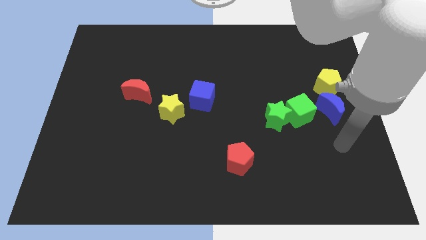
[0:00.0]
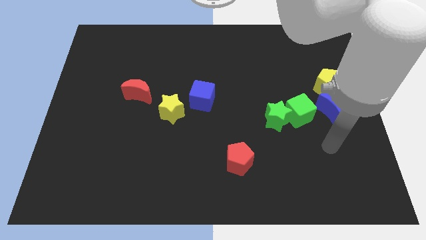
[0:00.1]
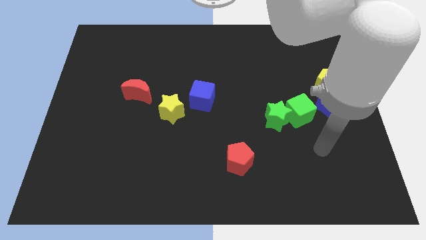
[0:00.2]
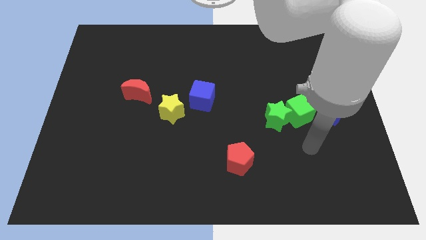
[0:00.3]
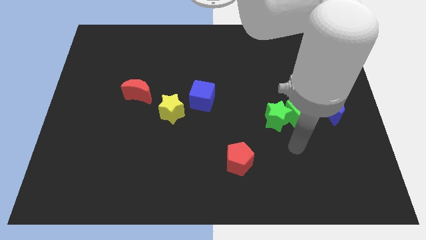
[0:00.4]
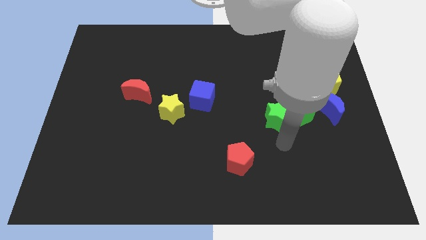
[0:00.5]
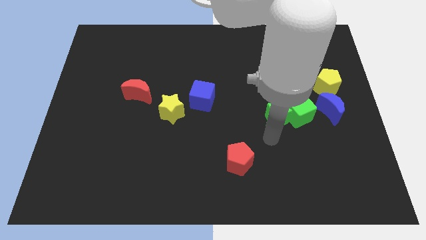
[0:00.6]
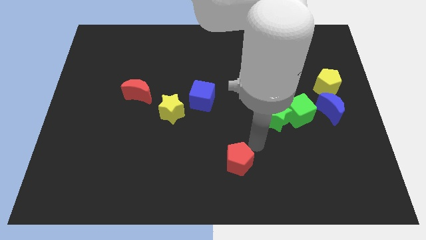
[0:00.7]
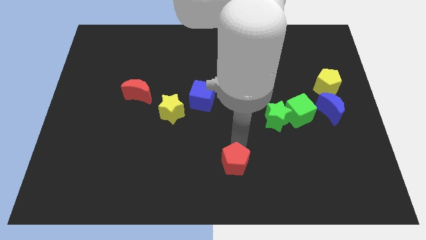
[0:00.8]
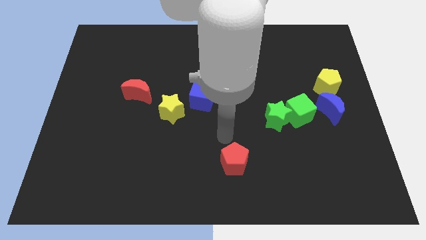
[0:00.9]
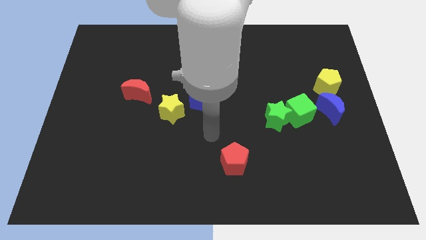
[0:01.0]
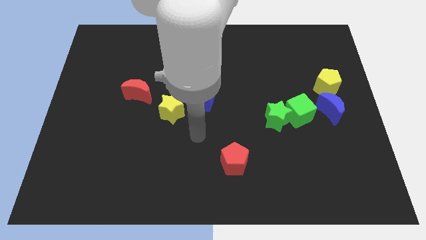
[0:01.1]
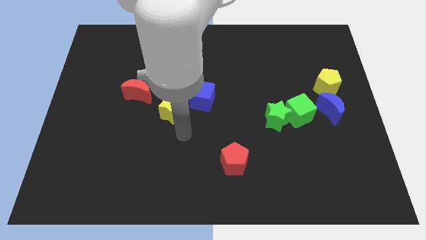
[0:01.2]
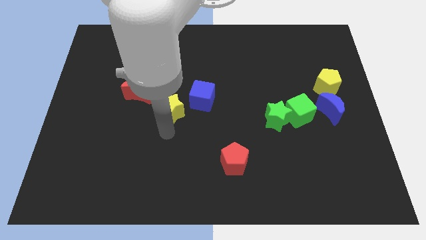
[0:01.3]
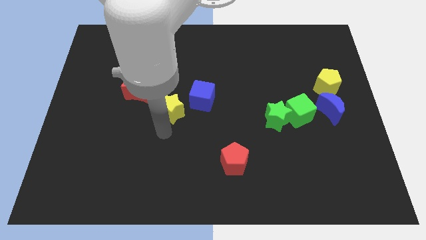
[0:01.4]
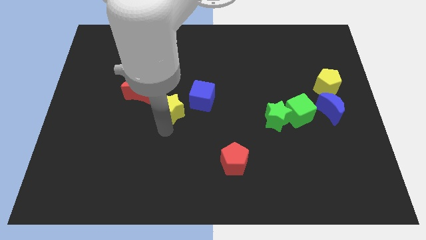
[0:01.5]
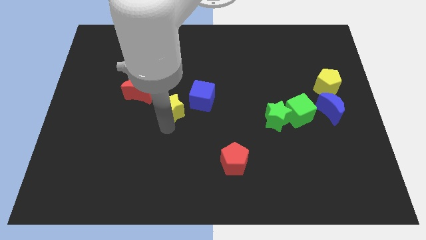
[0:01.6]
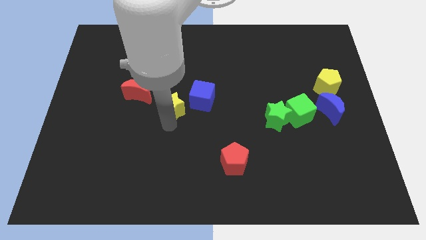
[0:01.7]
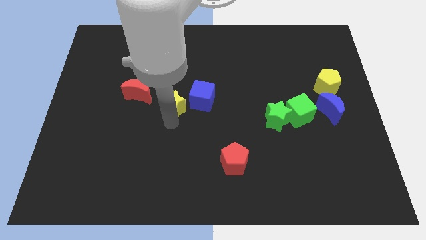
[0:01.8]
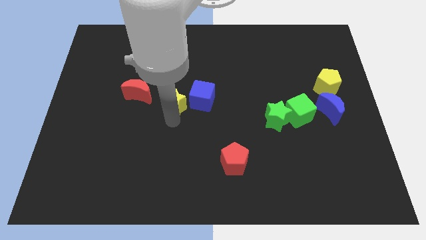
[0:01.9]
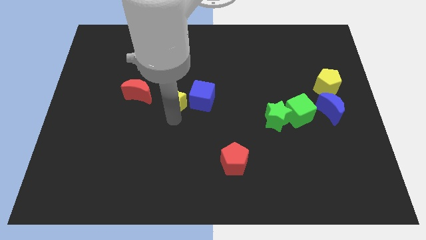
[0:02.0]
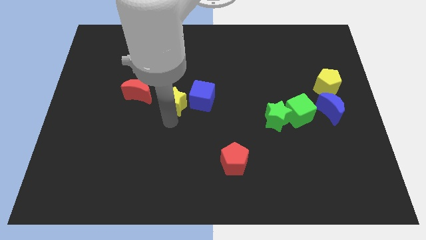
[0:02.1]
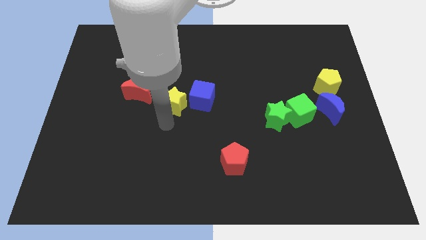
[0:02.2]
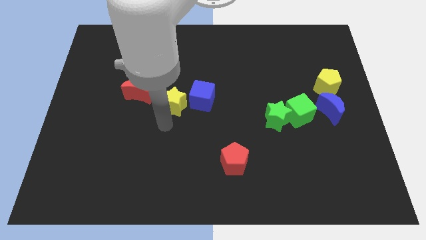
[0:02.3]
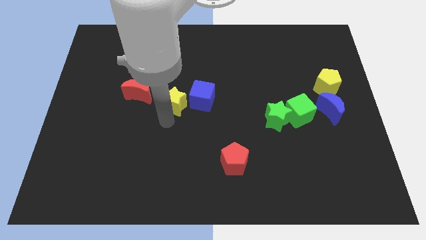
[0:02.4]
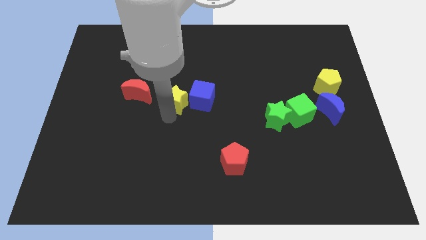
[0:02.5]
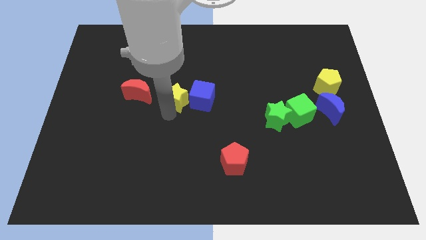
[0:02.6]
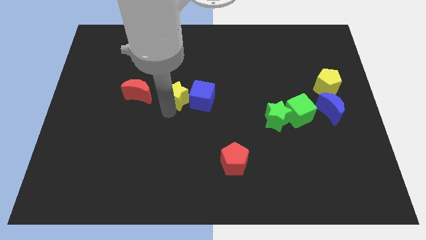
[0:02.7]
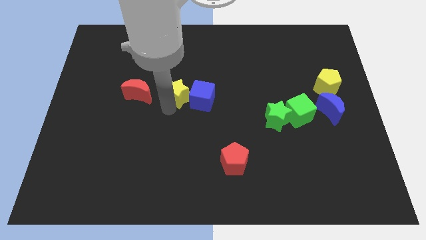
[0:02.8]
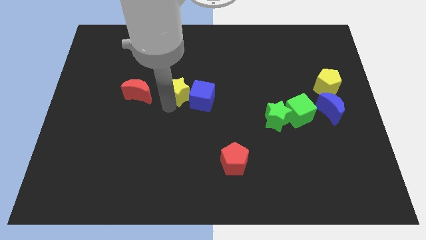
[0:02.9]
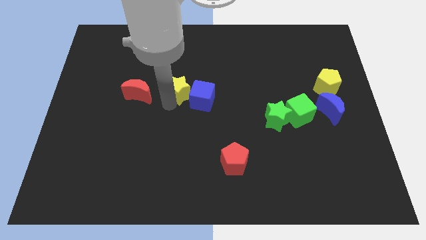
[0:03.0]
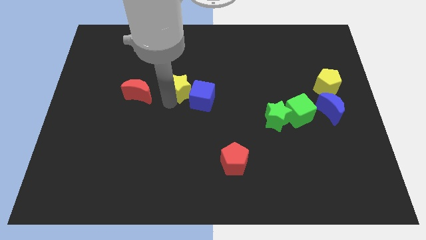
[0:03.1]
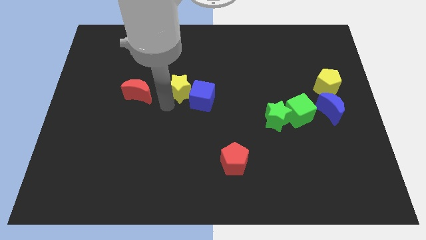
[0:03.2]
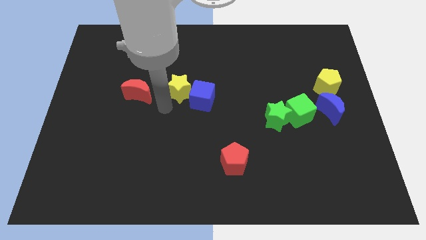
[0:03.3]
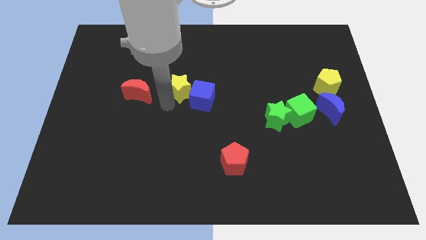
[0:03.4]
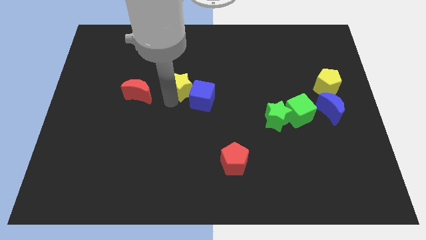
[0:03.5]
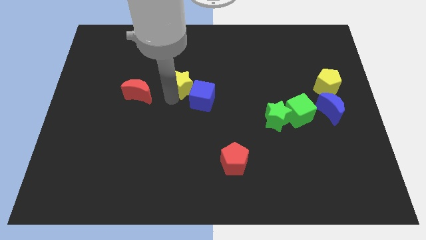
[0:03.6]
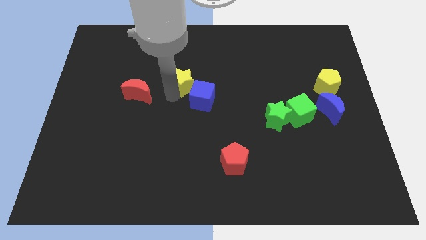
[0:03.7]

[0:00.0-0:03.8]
slightly slide the yellow star diagonally upwards and right

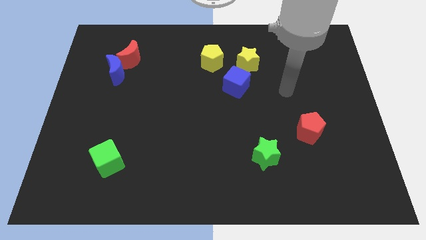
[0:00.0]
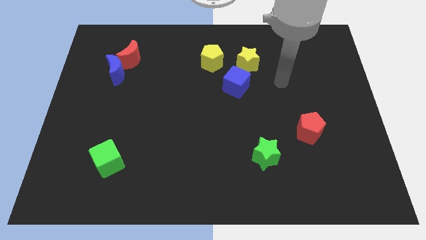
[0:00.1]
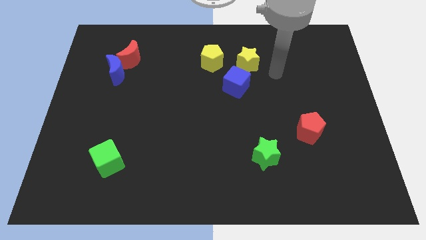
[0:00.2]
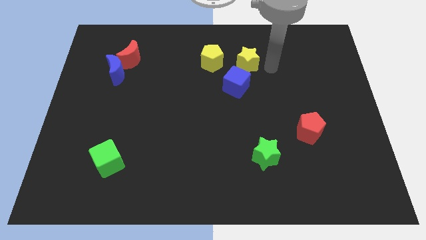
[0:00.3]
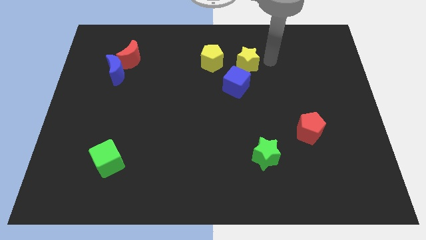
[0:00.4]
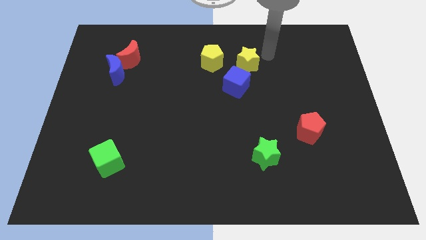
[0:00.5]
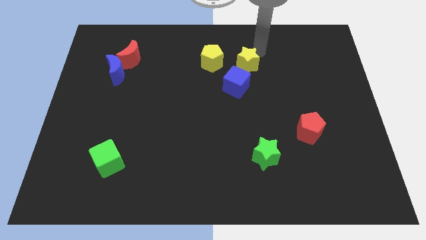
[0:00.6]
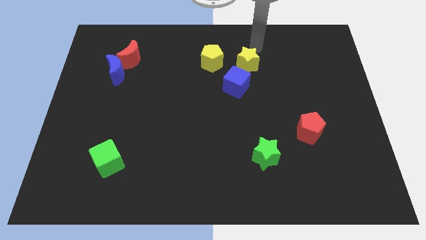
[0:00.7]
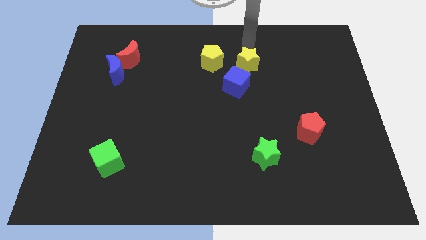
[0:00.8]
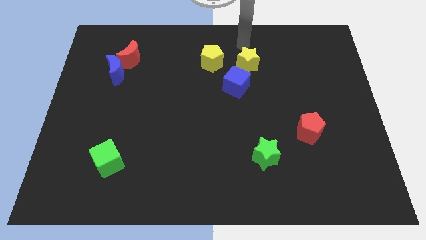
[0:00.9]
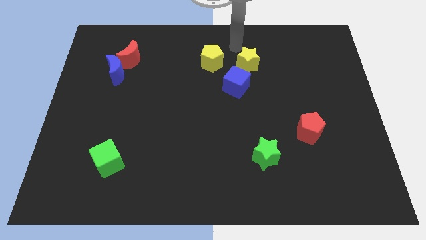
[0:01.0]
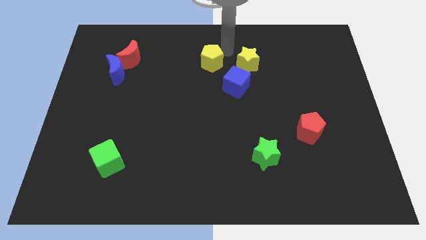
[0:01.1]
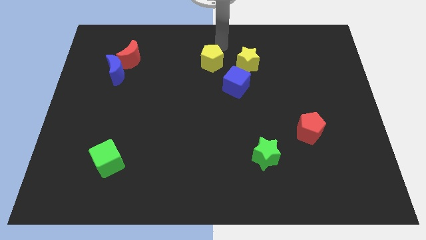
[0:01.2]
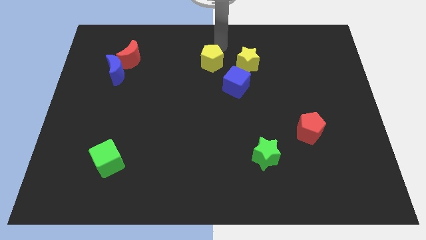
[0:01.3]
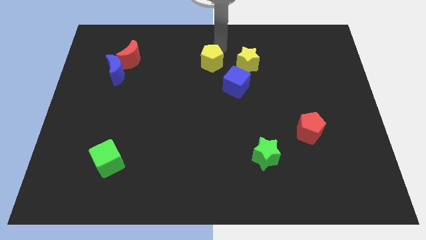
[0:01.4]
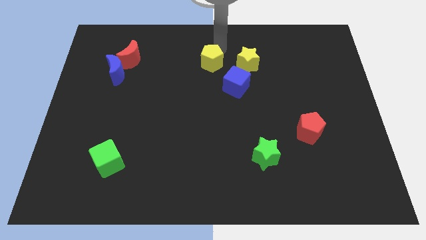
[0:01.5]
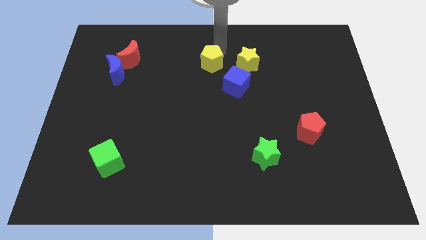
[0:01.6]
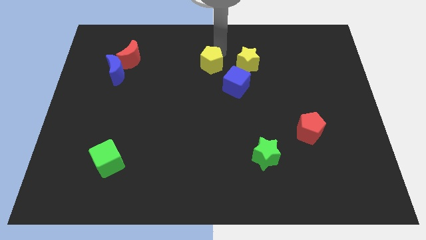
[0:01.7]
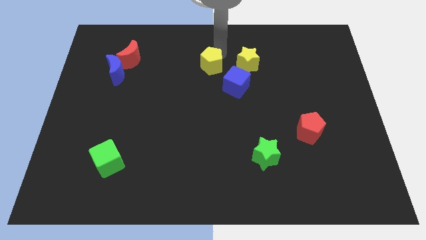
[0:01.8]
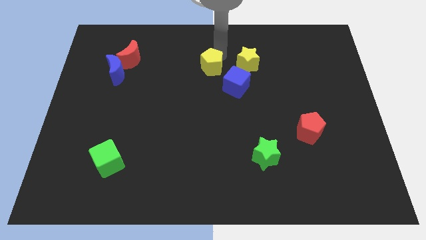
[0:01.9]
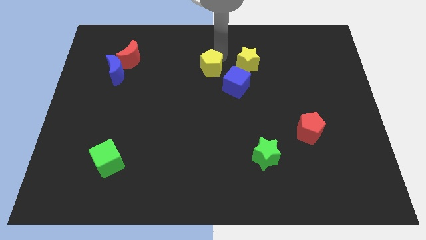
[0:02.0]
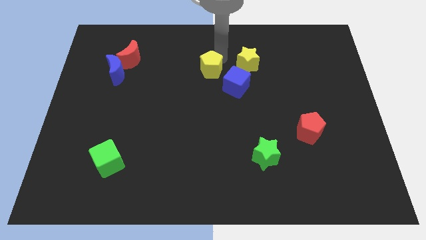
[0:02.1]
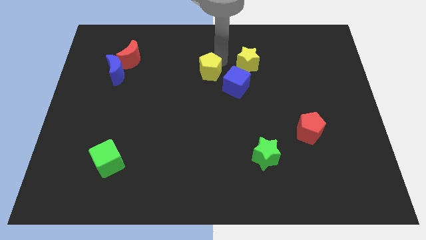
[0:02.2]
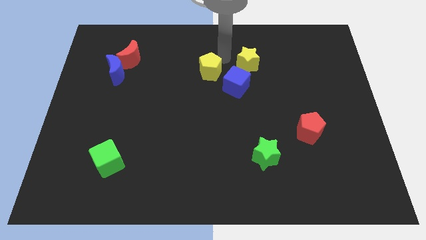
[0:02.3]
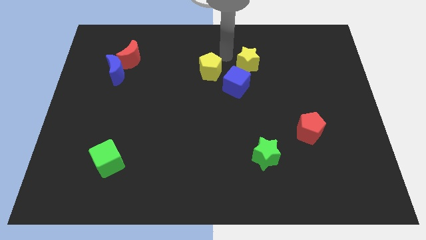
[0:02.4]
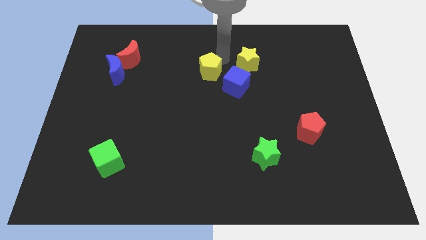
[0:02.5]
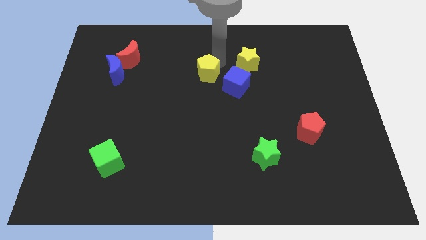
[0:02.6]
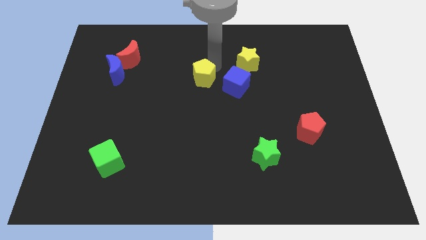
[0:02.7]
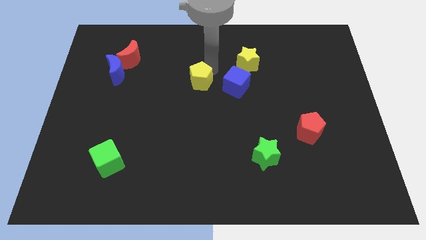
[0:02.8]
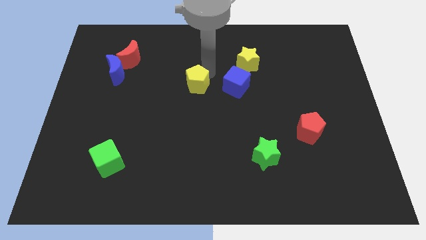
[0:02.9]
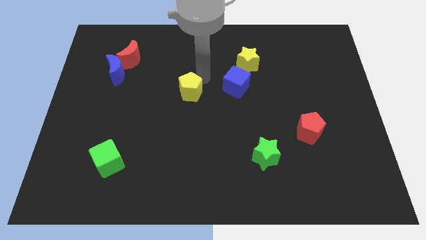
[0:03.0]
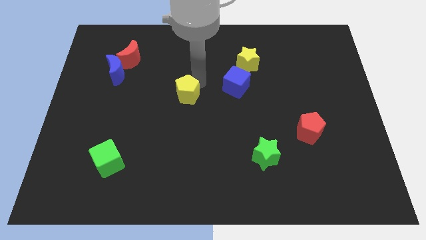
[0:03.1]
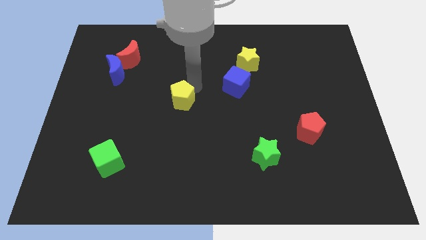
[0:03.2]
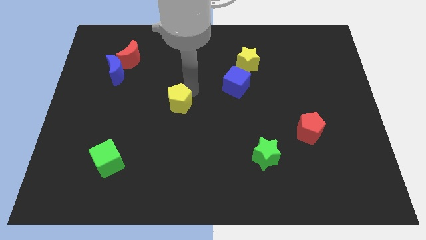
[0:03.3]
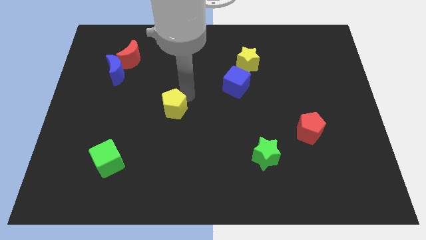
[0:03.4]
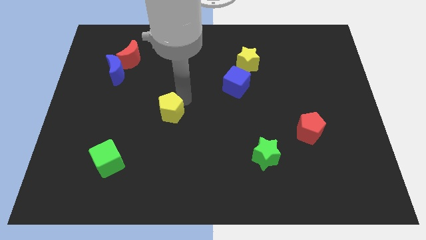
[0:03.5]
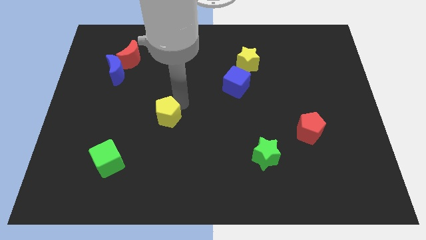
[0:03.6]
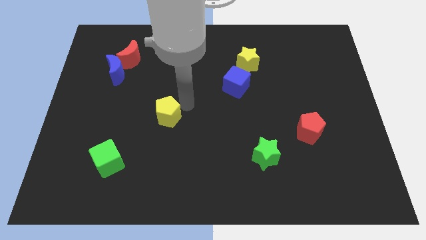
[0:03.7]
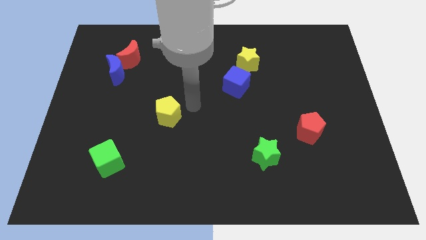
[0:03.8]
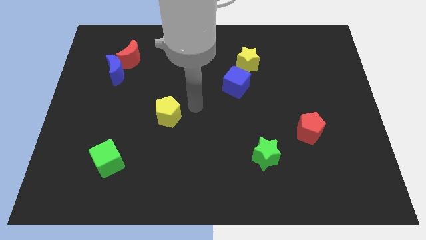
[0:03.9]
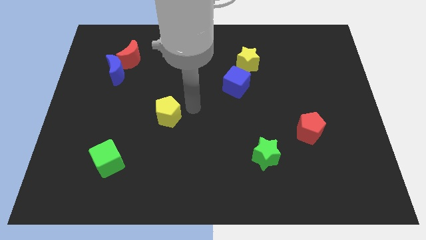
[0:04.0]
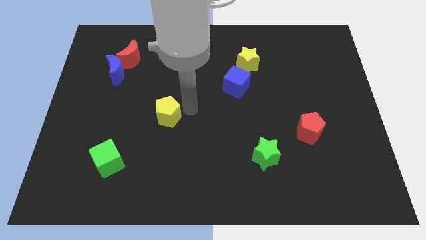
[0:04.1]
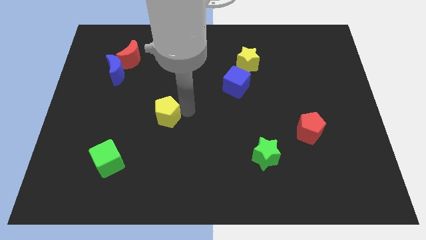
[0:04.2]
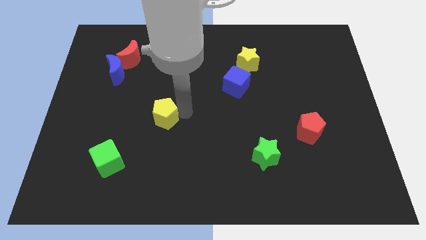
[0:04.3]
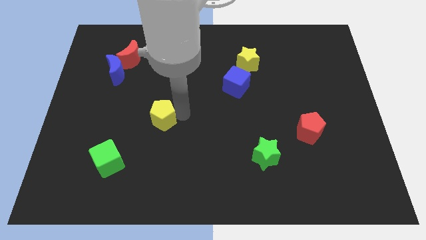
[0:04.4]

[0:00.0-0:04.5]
push the yellow pentagon diagonally down and to the left
